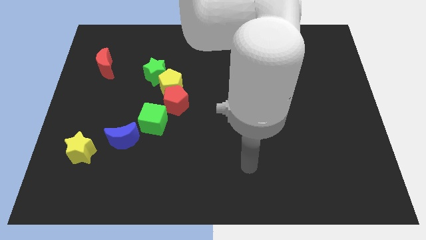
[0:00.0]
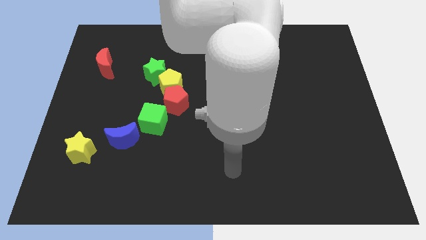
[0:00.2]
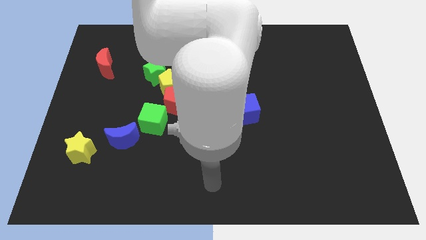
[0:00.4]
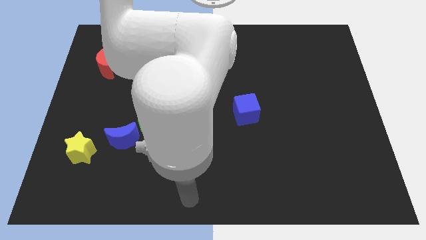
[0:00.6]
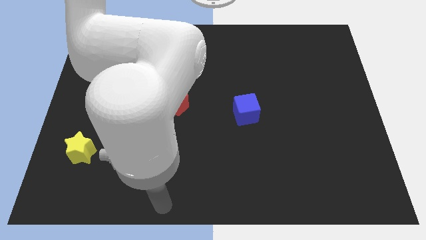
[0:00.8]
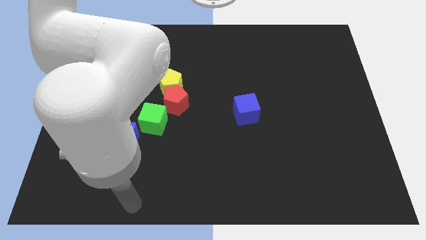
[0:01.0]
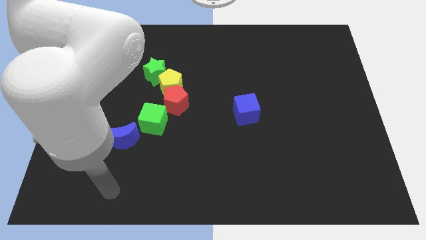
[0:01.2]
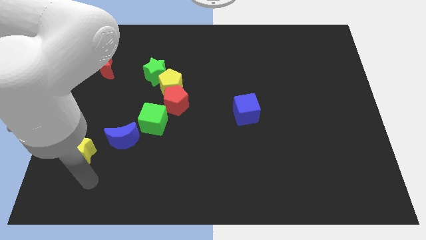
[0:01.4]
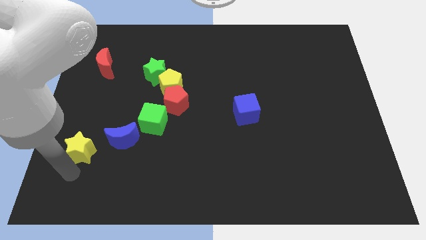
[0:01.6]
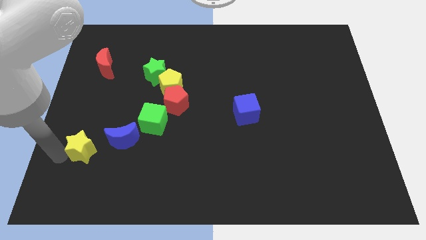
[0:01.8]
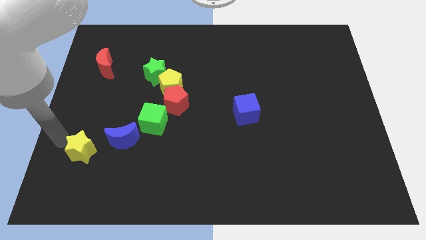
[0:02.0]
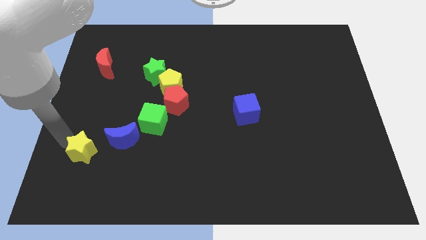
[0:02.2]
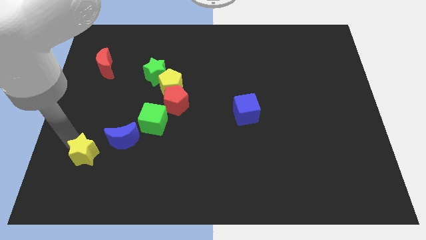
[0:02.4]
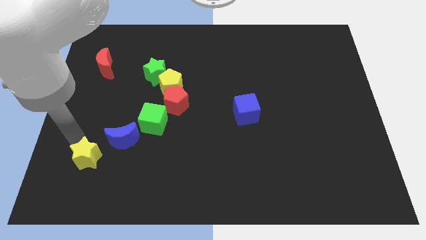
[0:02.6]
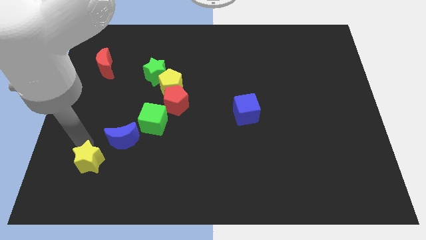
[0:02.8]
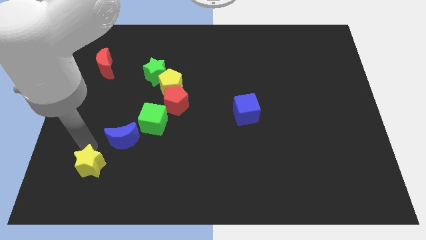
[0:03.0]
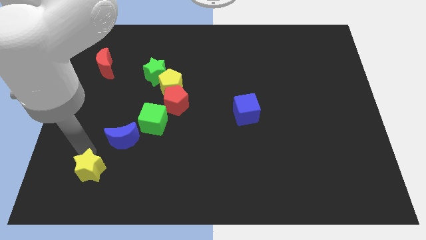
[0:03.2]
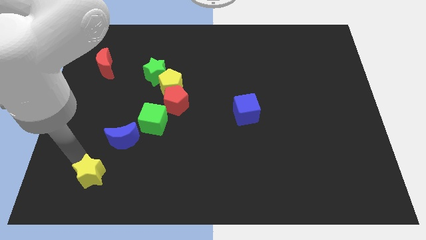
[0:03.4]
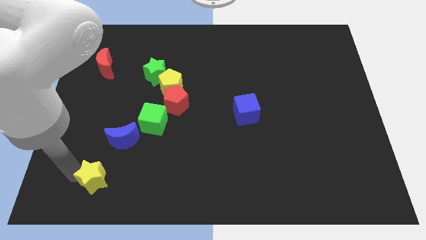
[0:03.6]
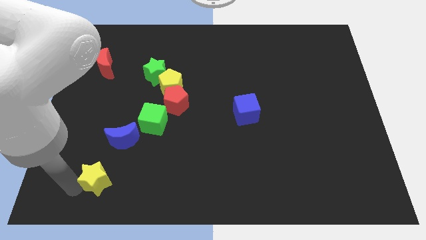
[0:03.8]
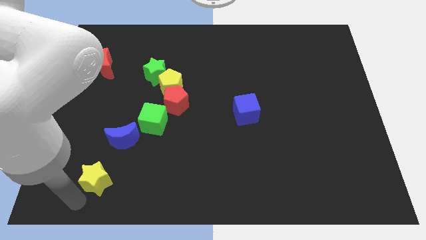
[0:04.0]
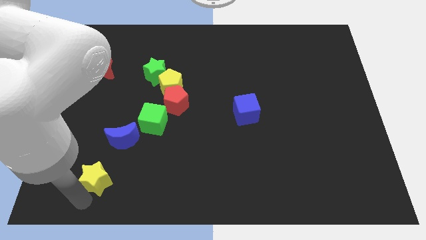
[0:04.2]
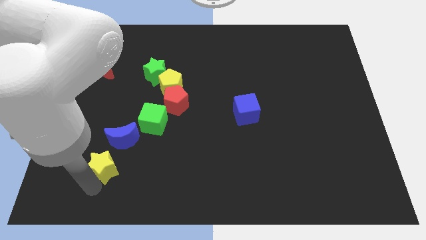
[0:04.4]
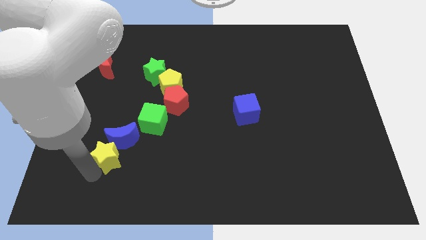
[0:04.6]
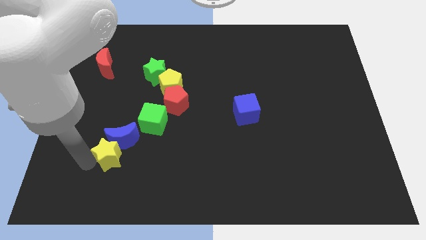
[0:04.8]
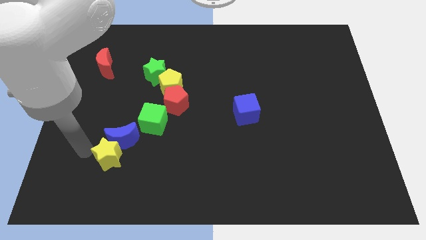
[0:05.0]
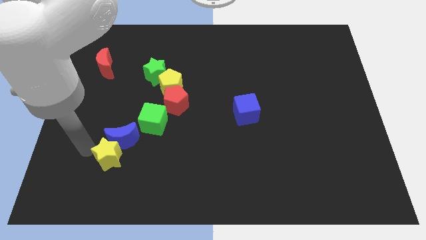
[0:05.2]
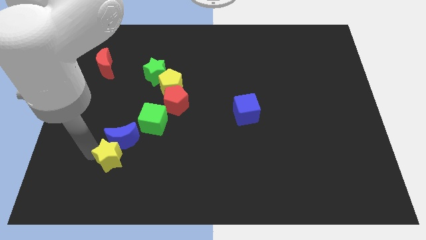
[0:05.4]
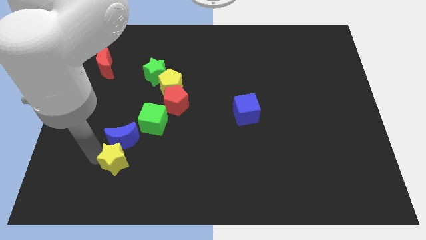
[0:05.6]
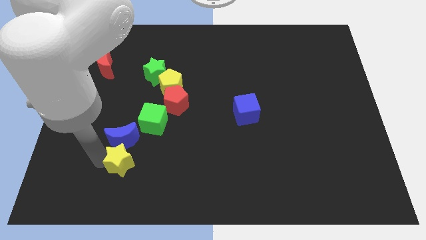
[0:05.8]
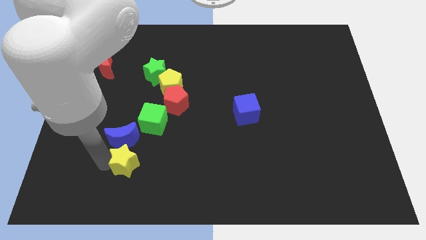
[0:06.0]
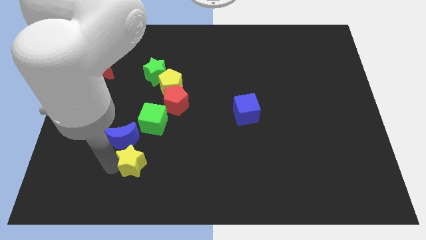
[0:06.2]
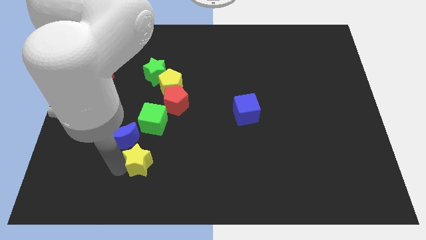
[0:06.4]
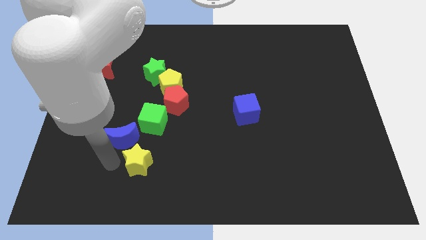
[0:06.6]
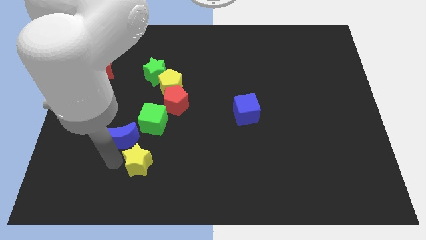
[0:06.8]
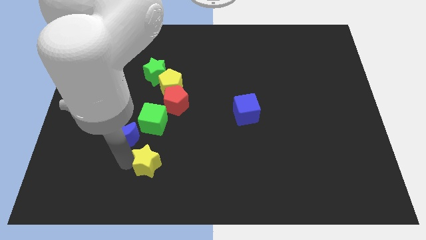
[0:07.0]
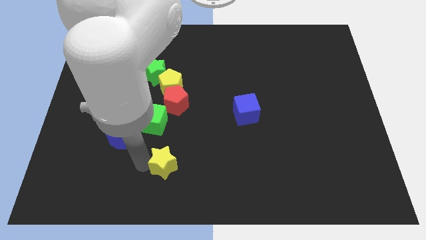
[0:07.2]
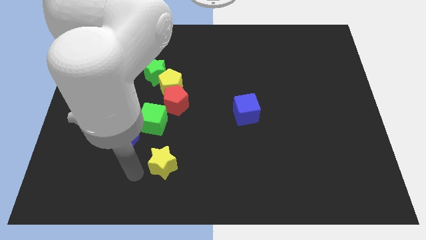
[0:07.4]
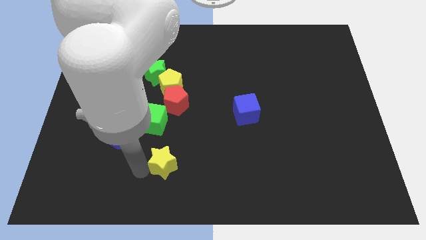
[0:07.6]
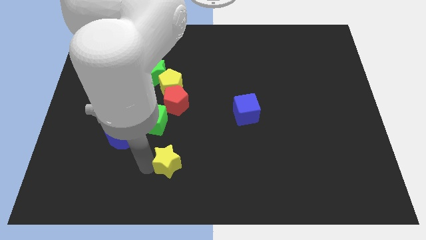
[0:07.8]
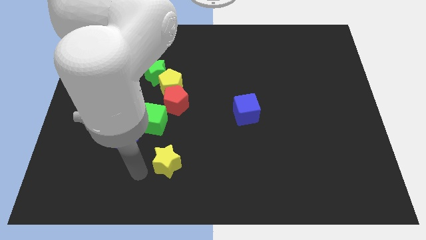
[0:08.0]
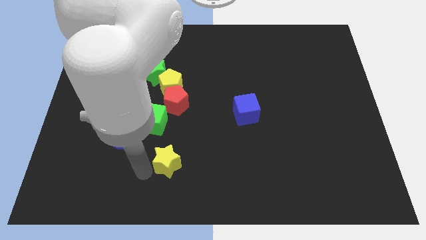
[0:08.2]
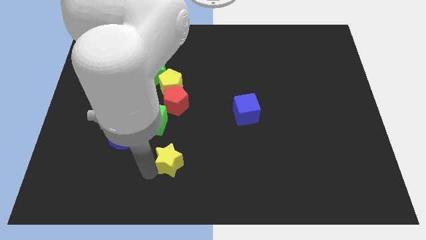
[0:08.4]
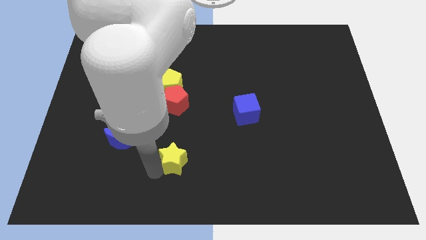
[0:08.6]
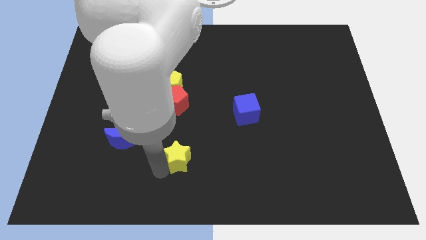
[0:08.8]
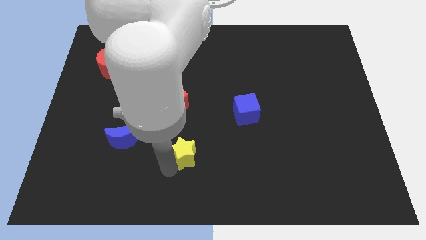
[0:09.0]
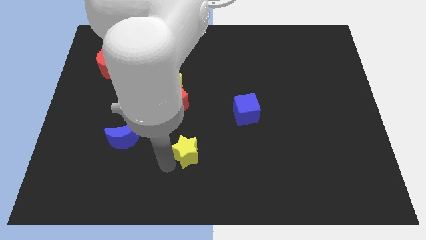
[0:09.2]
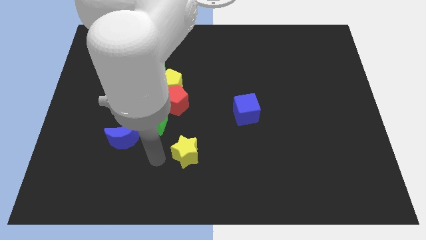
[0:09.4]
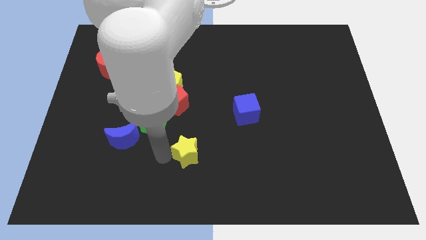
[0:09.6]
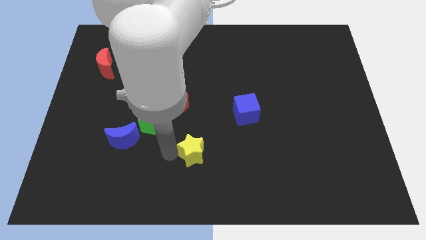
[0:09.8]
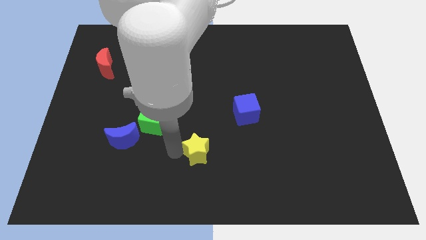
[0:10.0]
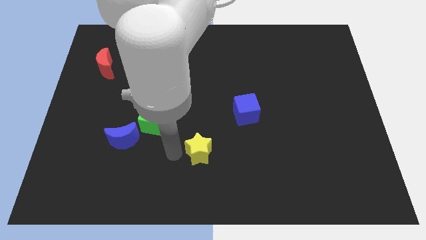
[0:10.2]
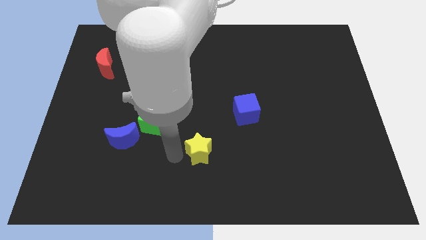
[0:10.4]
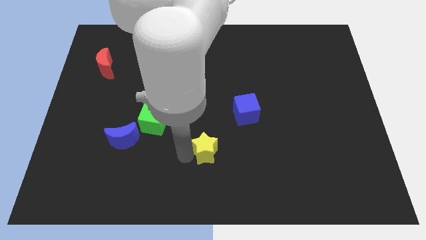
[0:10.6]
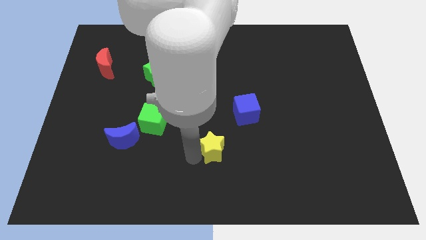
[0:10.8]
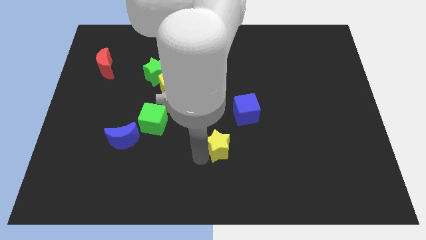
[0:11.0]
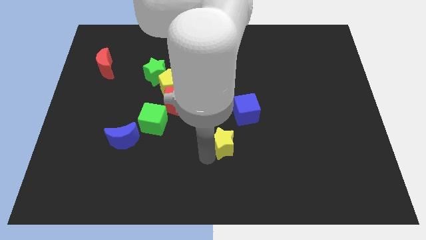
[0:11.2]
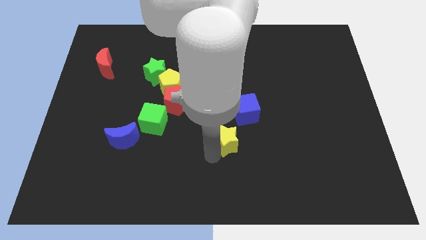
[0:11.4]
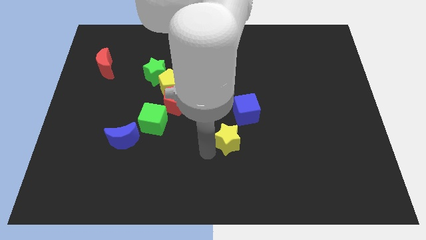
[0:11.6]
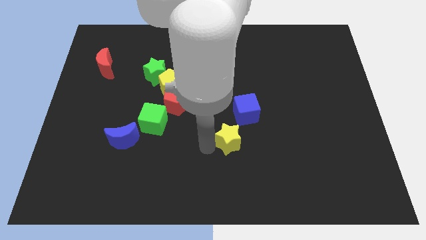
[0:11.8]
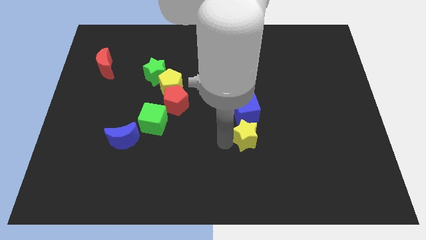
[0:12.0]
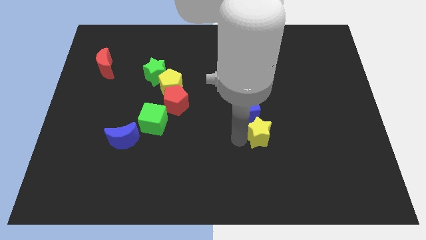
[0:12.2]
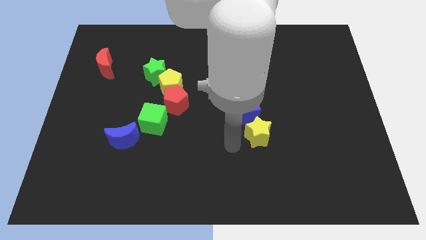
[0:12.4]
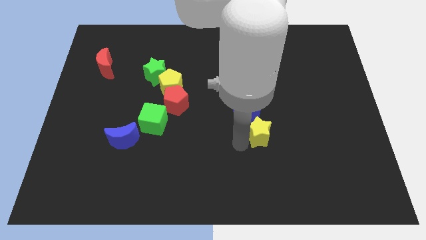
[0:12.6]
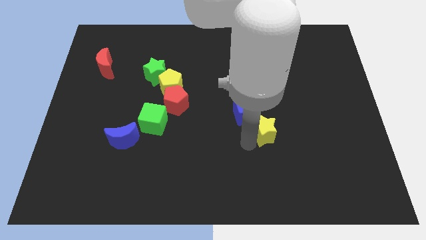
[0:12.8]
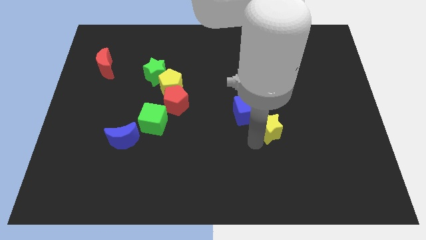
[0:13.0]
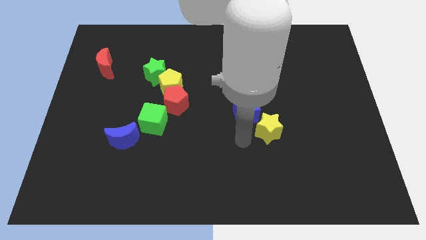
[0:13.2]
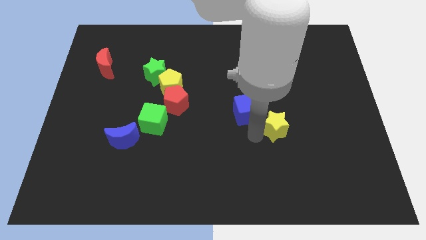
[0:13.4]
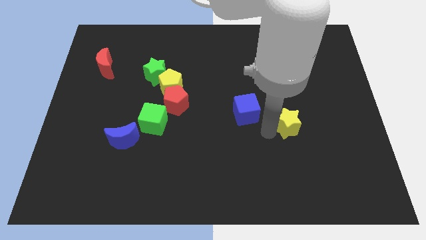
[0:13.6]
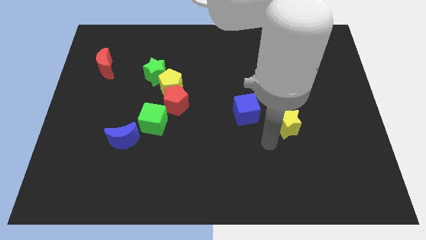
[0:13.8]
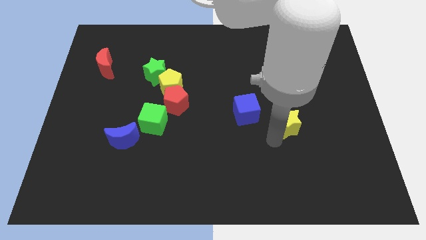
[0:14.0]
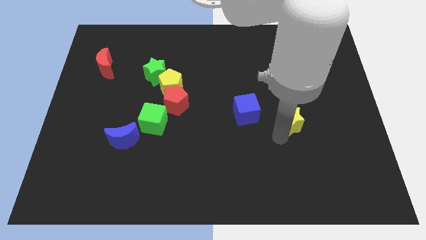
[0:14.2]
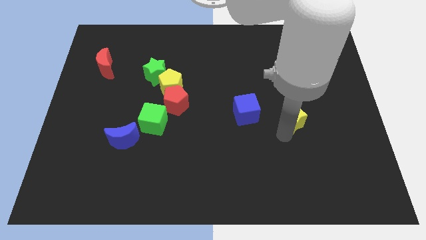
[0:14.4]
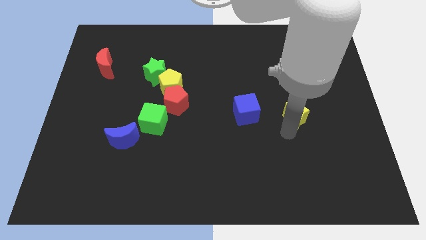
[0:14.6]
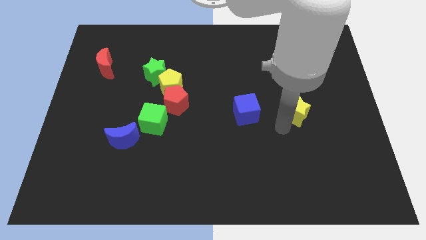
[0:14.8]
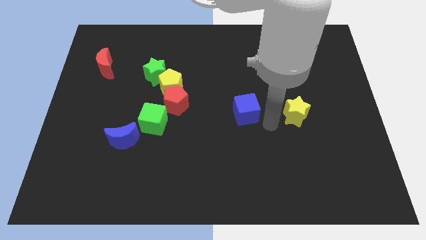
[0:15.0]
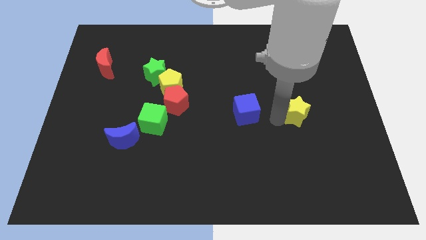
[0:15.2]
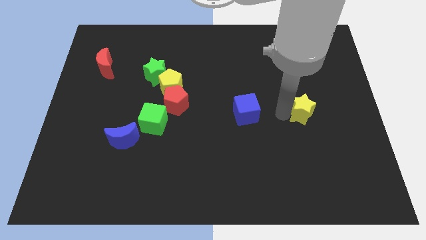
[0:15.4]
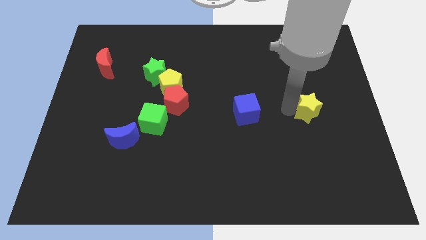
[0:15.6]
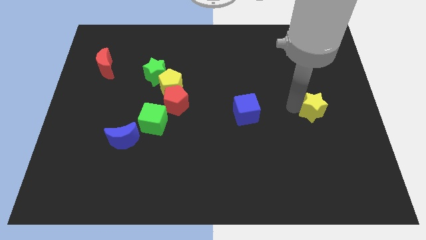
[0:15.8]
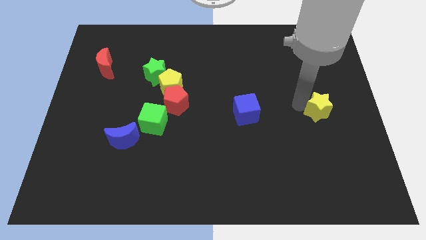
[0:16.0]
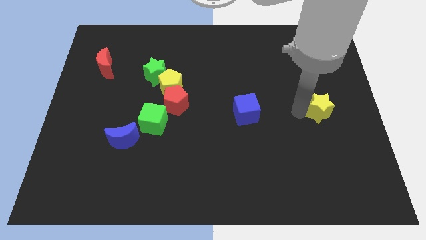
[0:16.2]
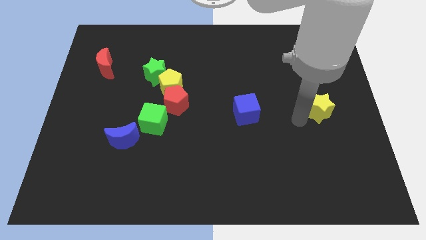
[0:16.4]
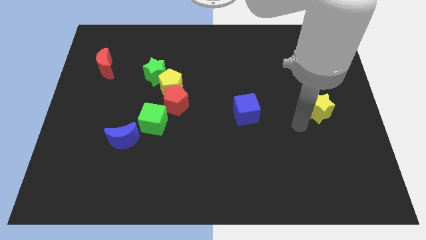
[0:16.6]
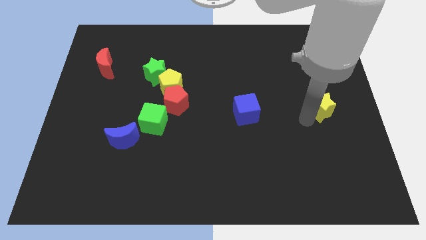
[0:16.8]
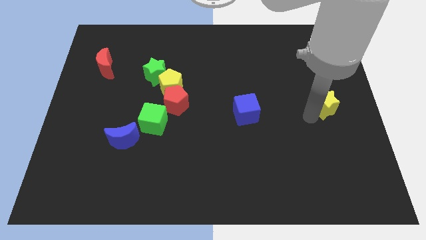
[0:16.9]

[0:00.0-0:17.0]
move the yellow star to the center right
